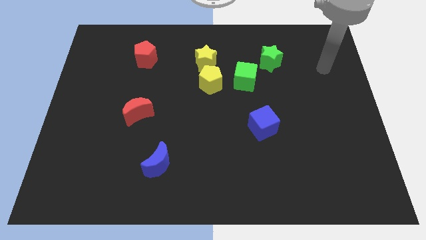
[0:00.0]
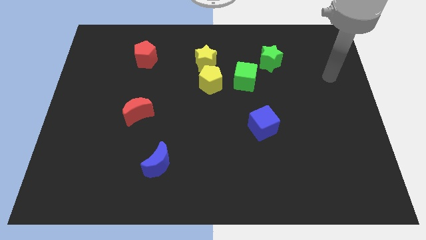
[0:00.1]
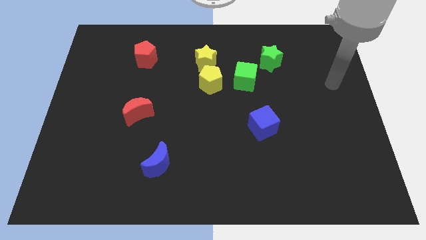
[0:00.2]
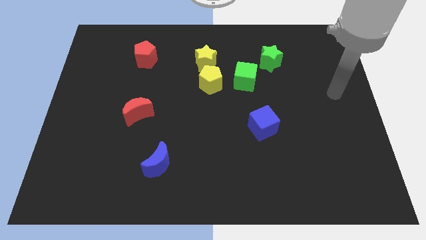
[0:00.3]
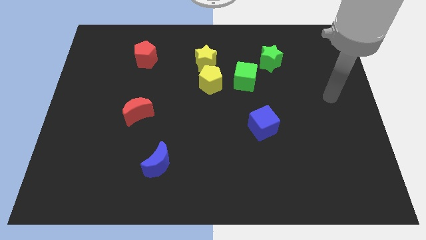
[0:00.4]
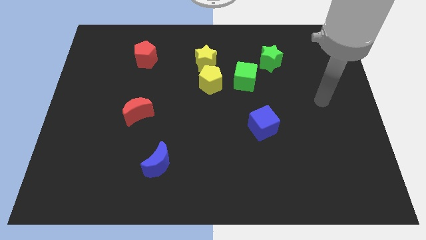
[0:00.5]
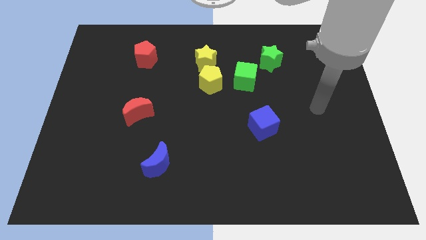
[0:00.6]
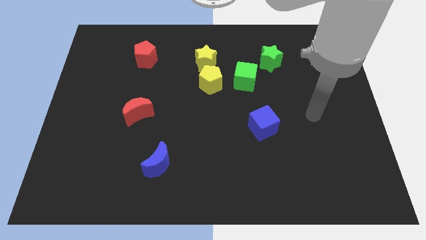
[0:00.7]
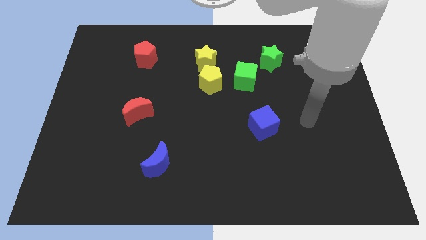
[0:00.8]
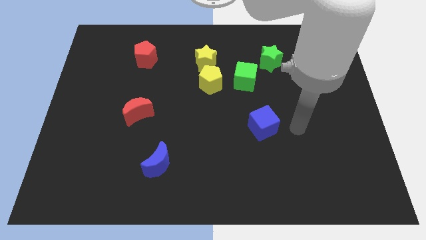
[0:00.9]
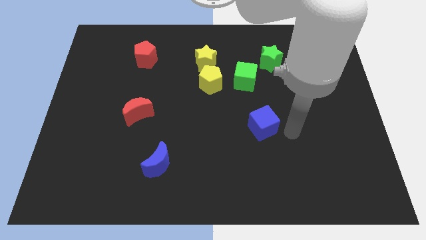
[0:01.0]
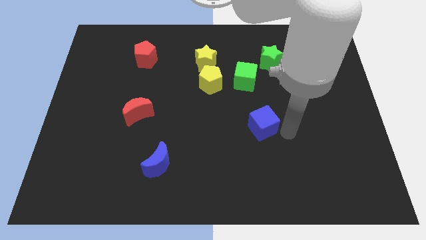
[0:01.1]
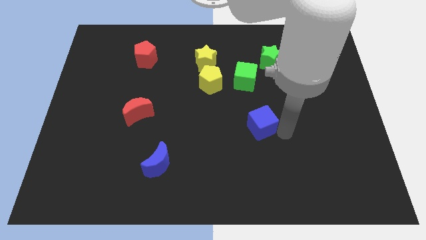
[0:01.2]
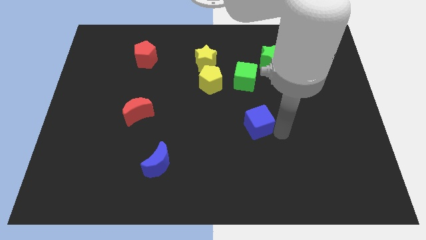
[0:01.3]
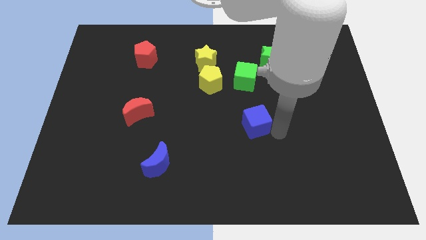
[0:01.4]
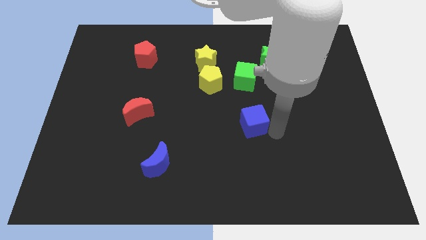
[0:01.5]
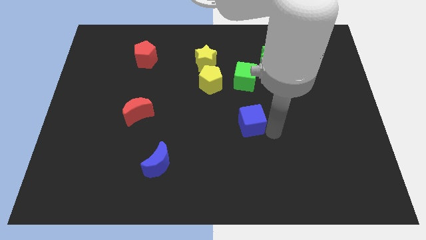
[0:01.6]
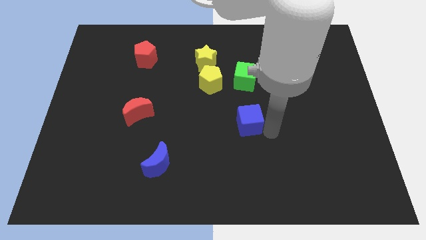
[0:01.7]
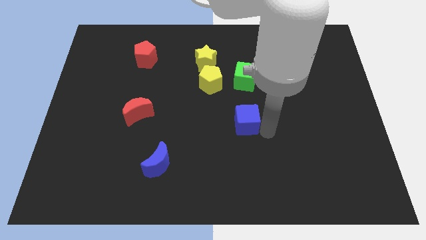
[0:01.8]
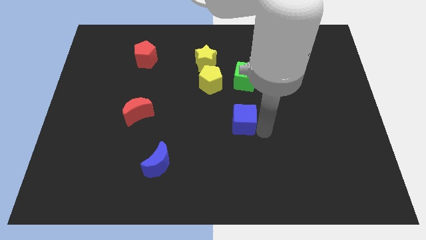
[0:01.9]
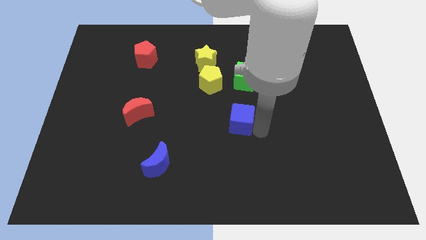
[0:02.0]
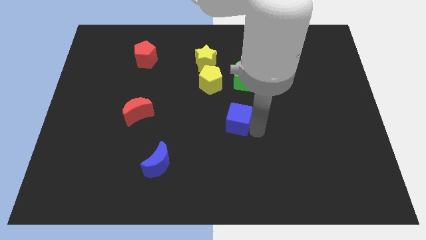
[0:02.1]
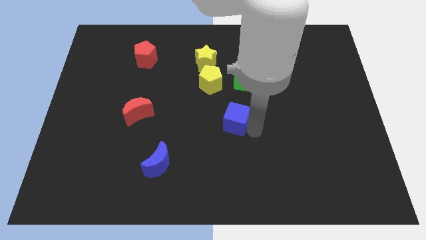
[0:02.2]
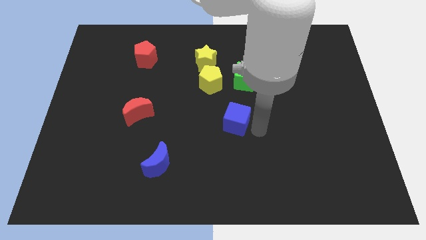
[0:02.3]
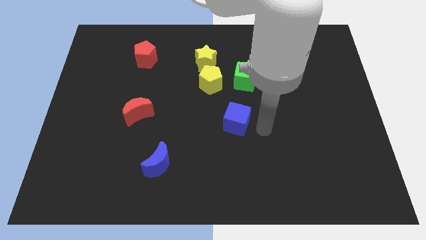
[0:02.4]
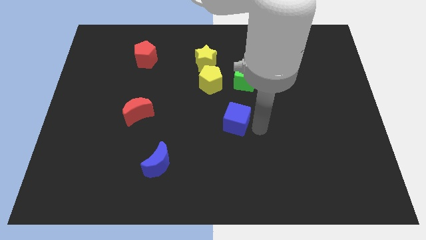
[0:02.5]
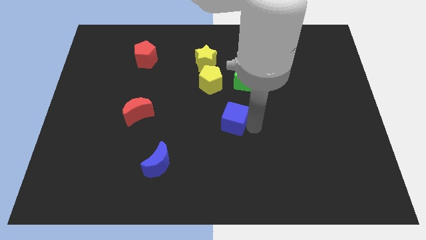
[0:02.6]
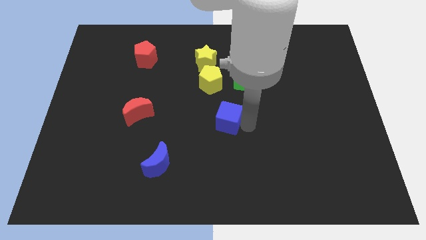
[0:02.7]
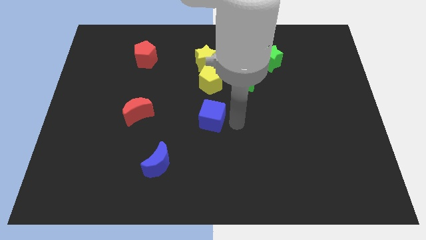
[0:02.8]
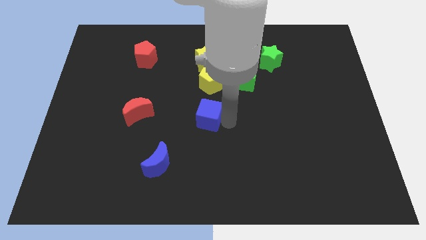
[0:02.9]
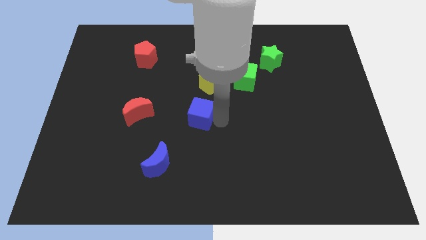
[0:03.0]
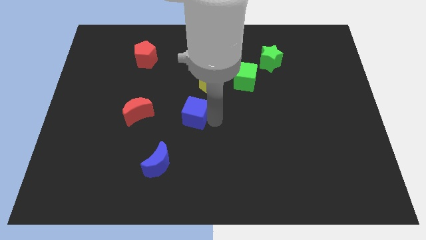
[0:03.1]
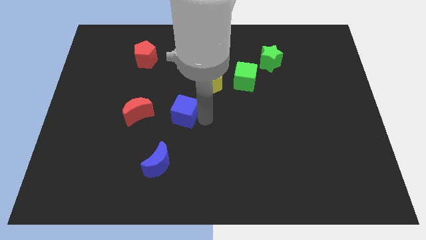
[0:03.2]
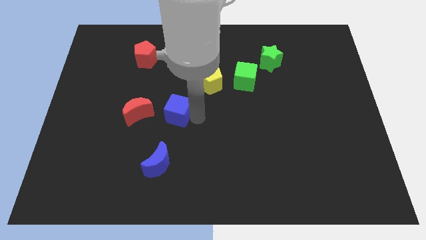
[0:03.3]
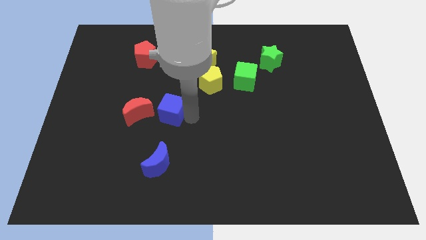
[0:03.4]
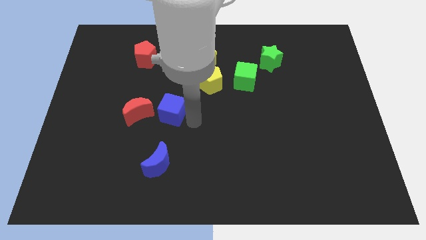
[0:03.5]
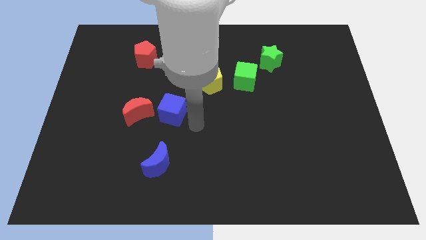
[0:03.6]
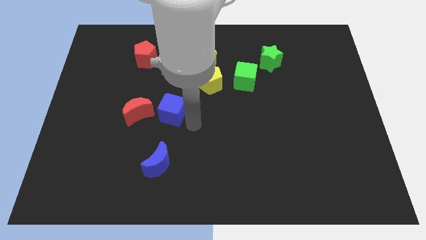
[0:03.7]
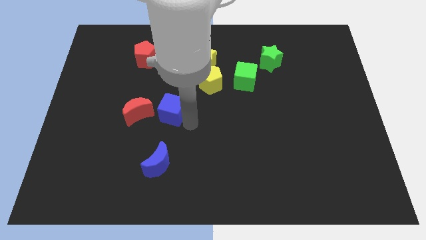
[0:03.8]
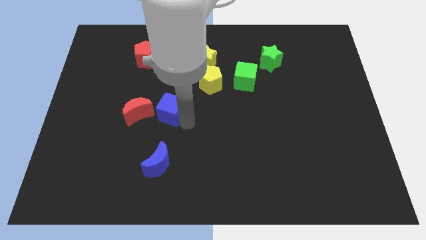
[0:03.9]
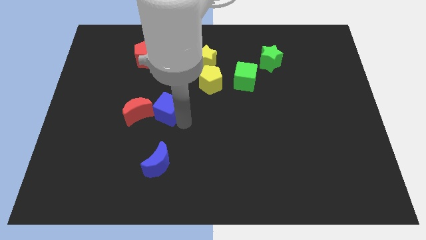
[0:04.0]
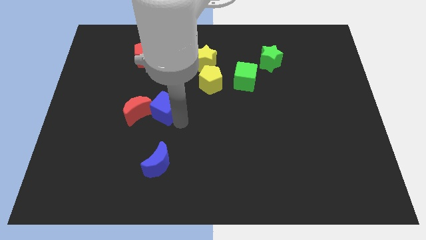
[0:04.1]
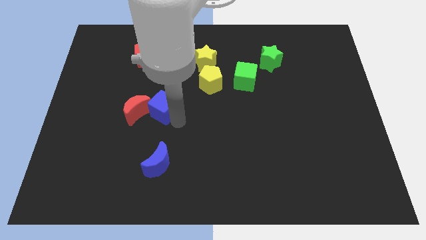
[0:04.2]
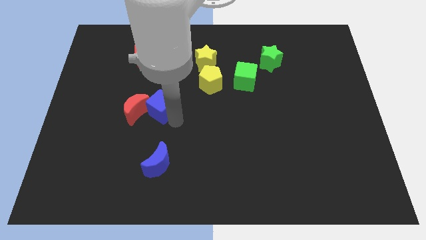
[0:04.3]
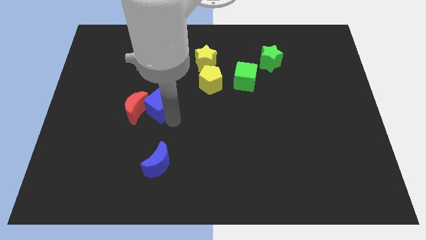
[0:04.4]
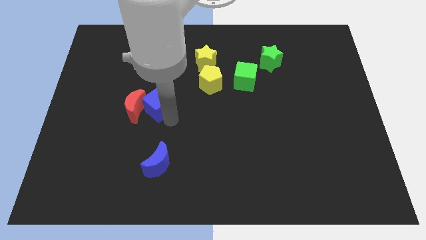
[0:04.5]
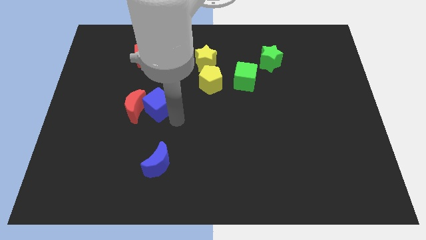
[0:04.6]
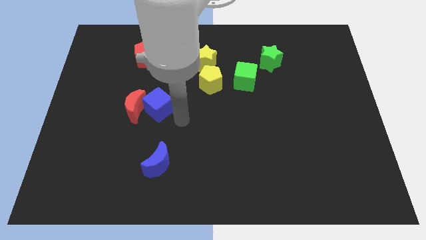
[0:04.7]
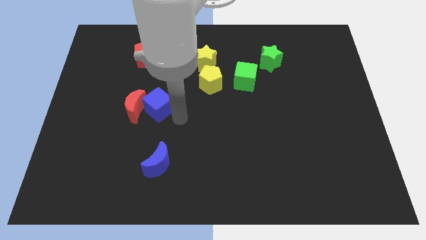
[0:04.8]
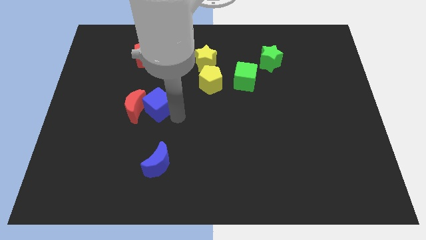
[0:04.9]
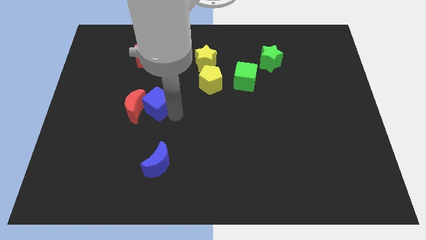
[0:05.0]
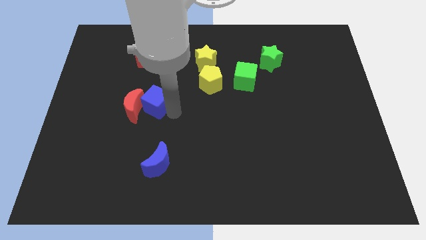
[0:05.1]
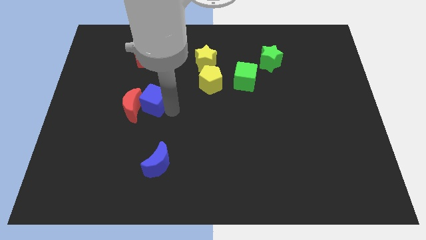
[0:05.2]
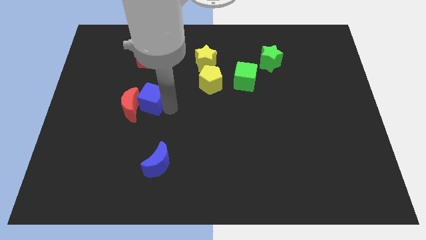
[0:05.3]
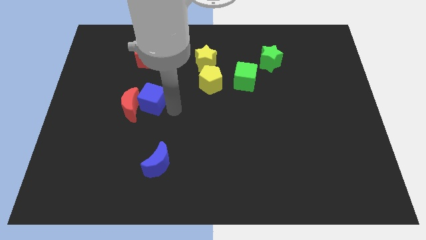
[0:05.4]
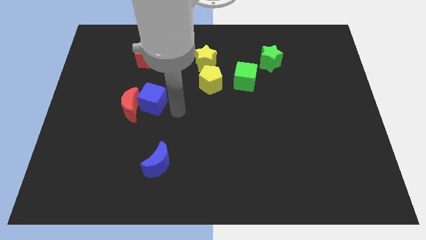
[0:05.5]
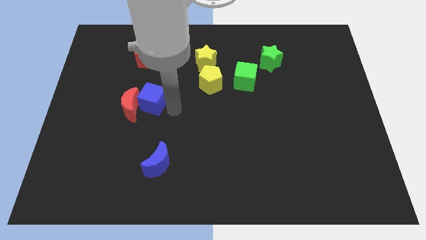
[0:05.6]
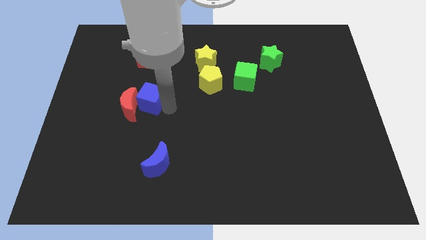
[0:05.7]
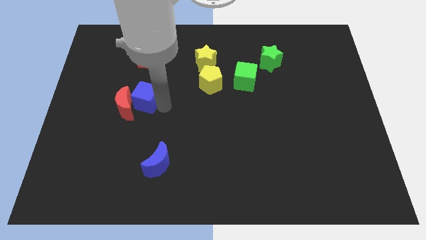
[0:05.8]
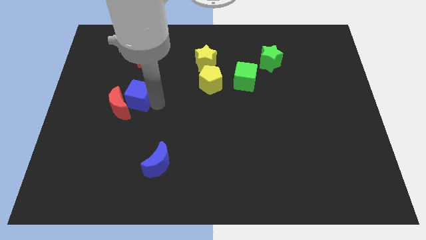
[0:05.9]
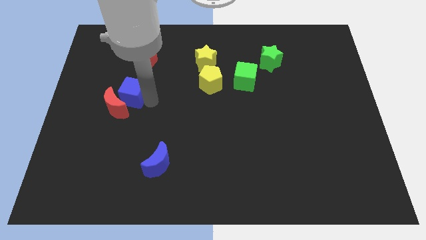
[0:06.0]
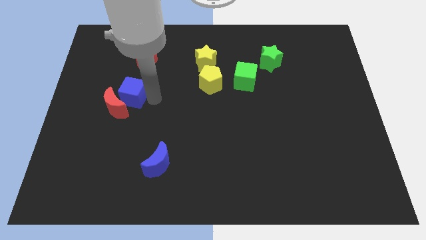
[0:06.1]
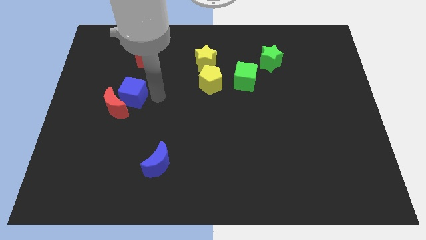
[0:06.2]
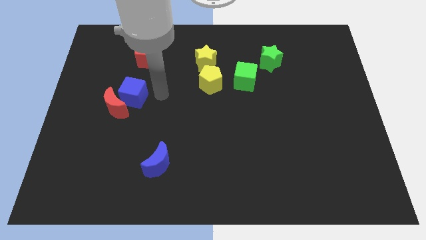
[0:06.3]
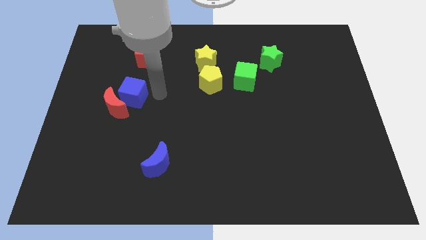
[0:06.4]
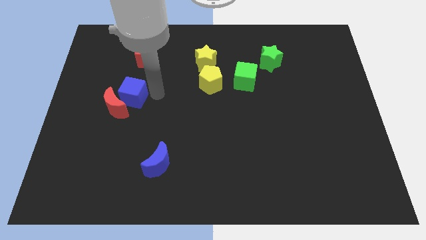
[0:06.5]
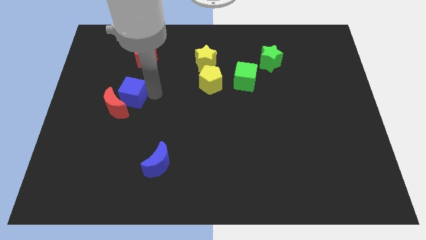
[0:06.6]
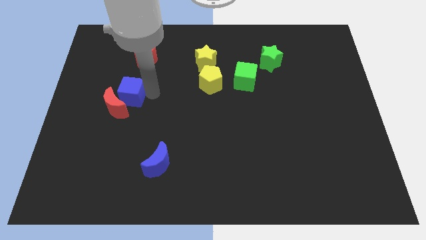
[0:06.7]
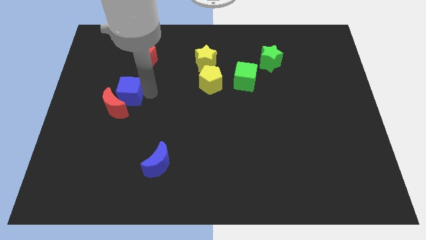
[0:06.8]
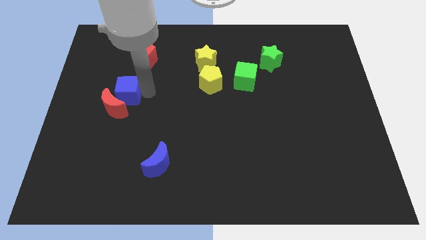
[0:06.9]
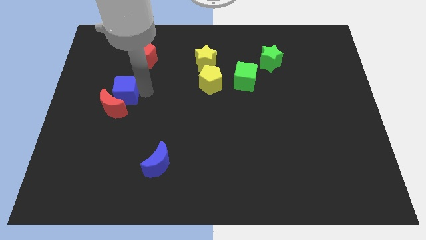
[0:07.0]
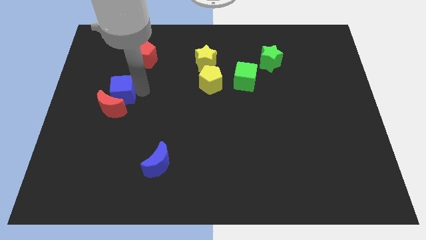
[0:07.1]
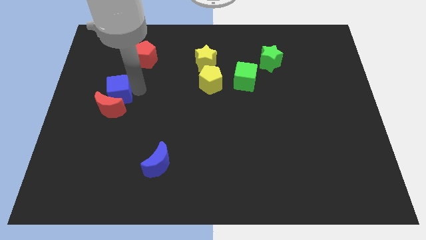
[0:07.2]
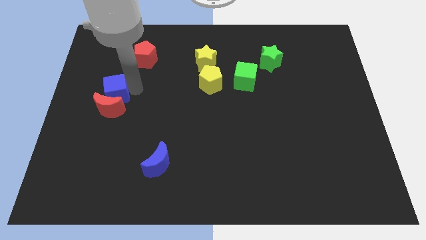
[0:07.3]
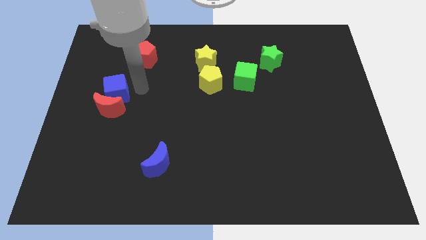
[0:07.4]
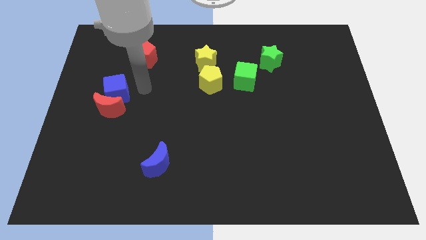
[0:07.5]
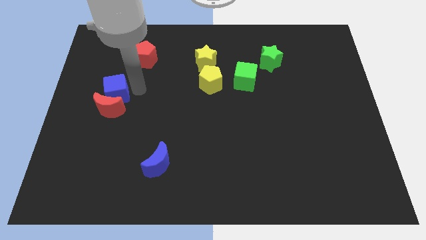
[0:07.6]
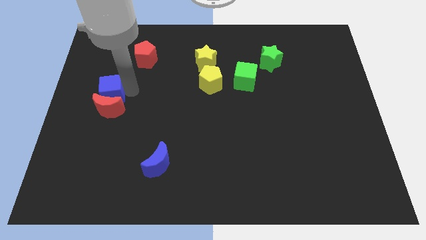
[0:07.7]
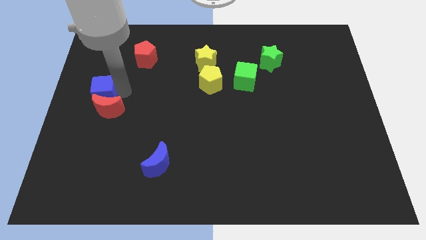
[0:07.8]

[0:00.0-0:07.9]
push the blue cube to the left side
